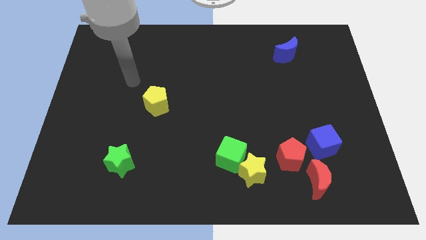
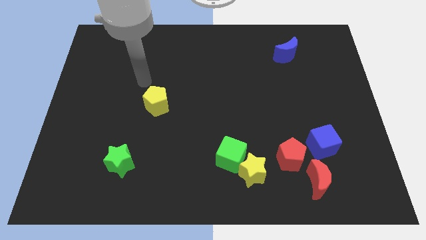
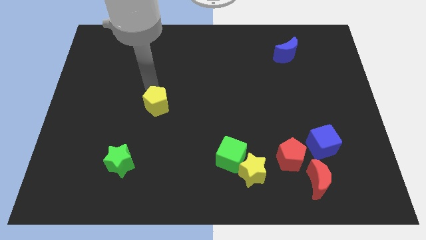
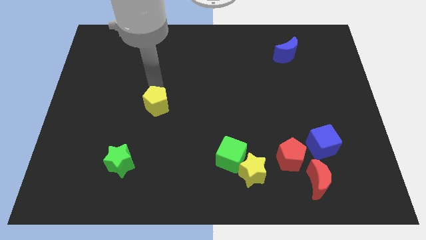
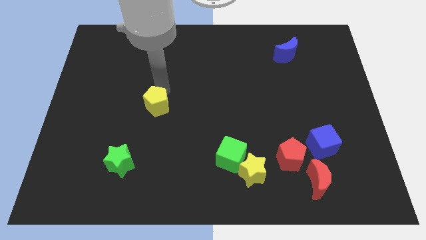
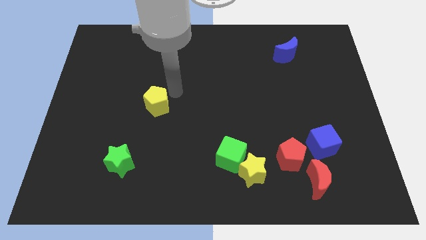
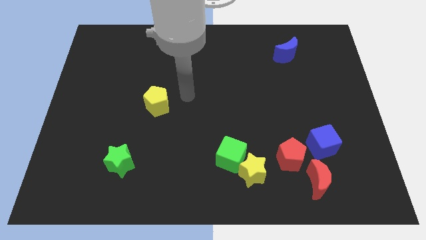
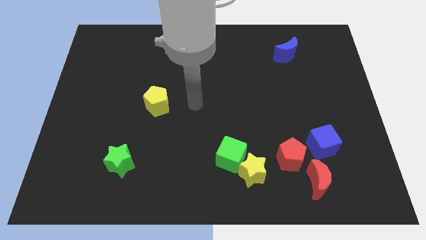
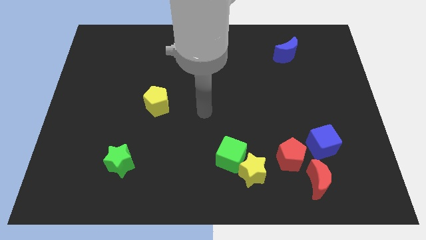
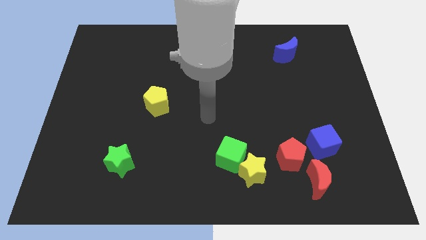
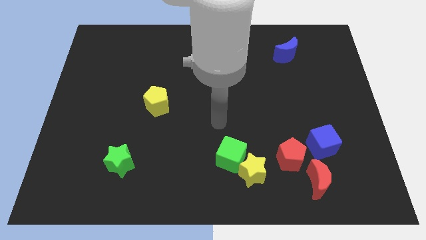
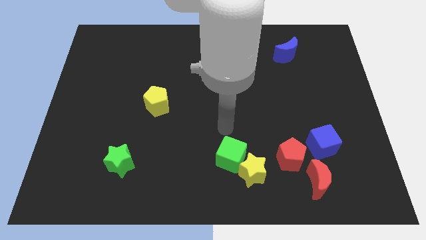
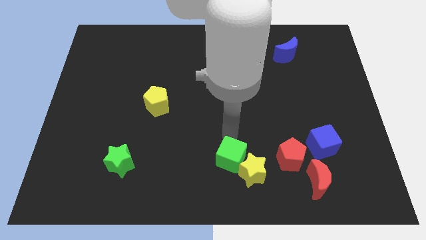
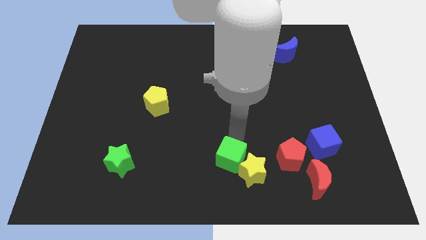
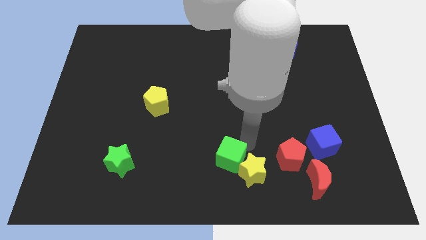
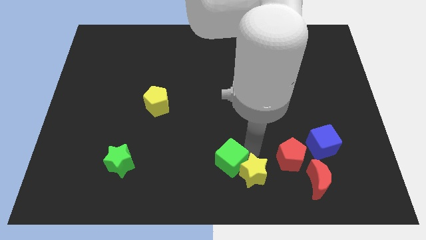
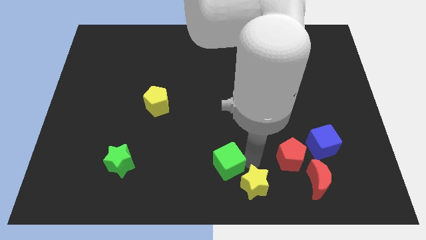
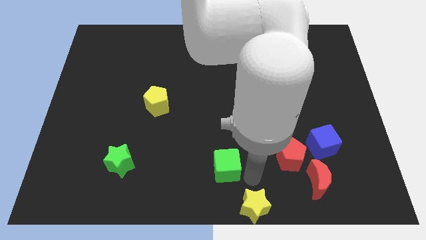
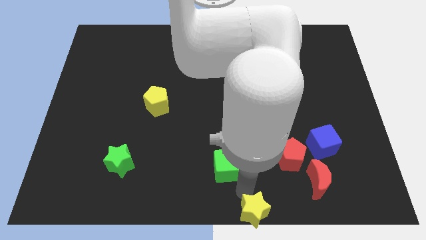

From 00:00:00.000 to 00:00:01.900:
pull the green cube apart from the yellow star

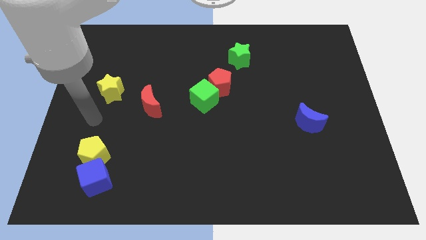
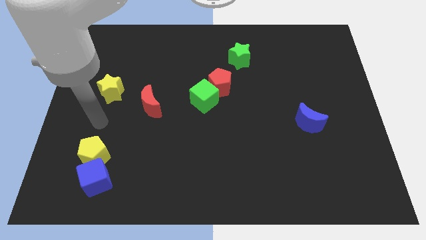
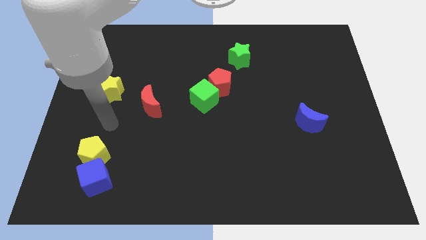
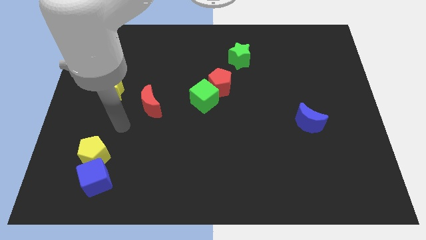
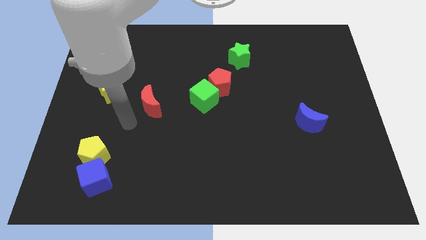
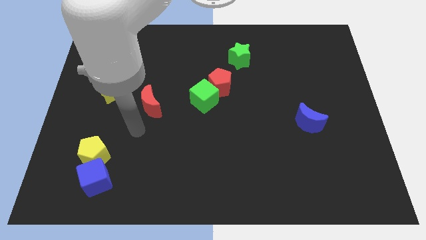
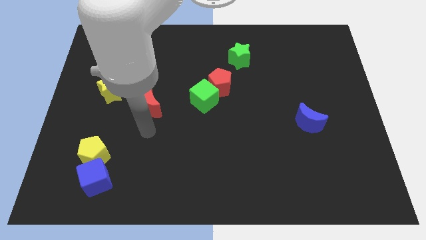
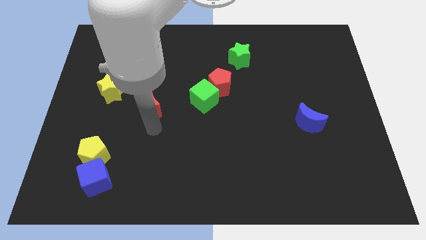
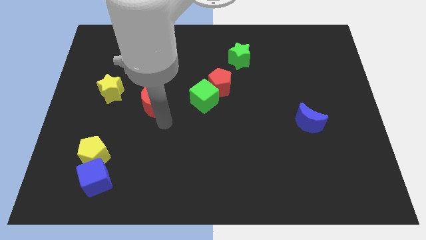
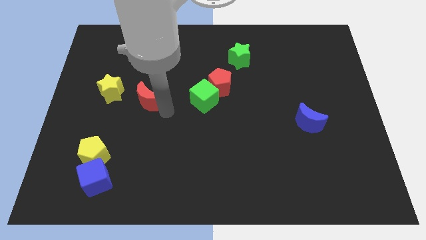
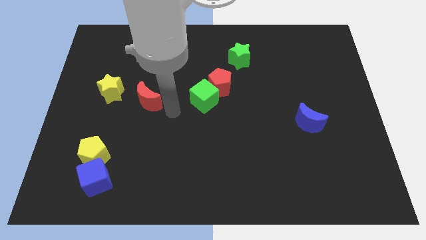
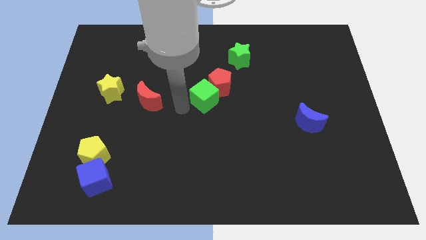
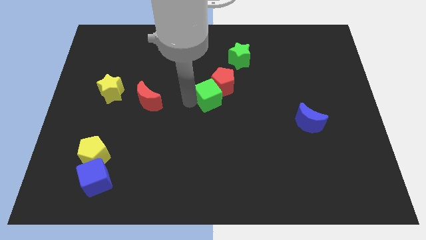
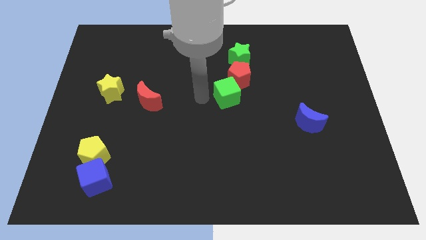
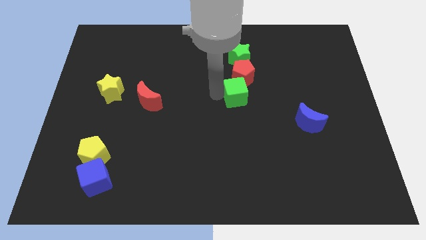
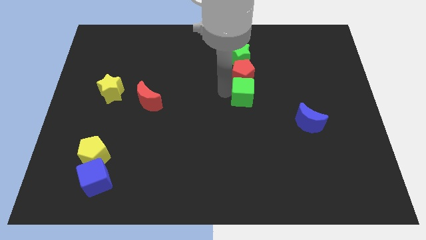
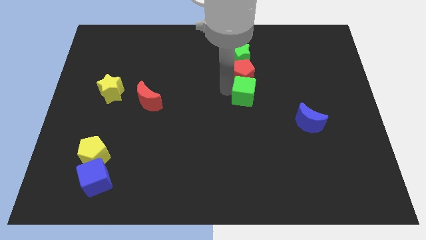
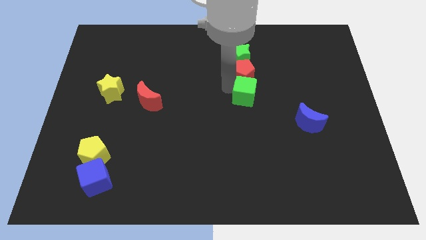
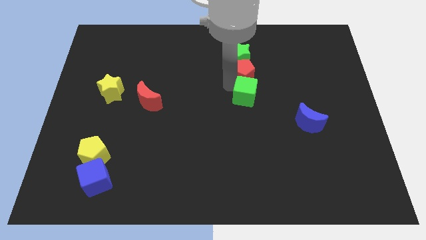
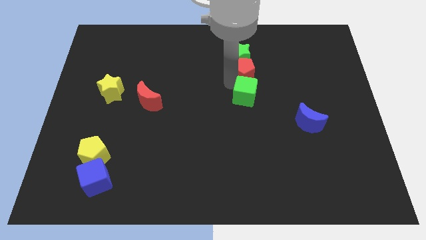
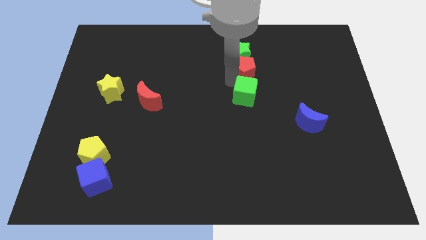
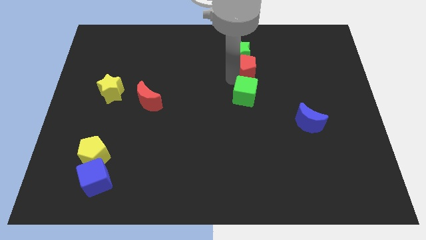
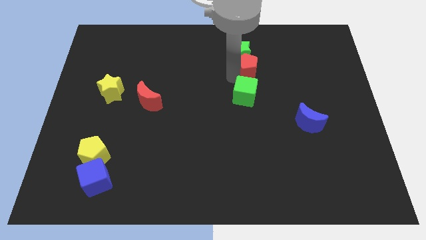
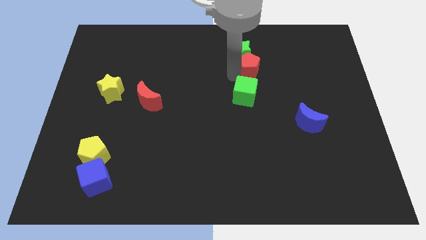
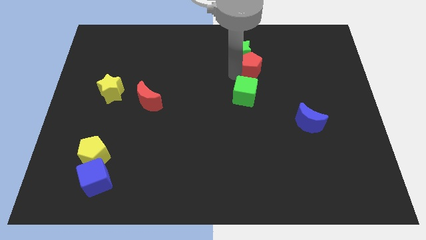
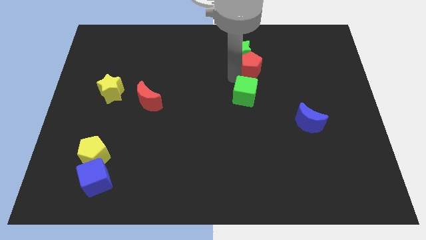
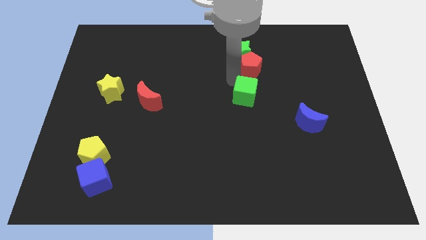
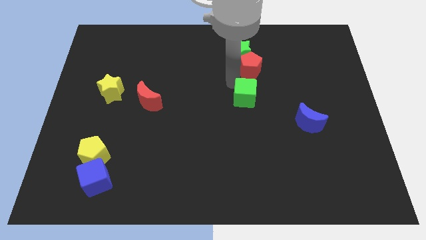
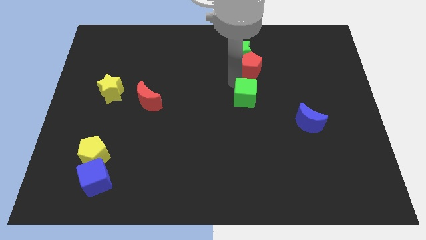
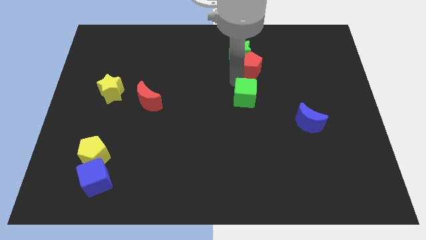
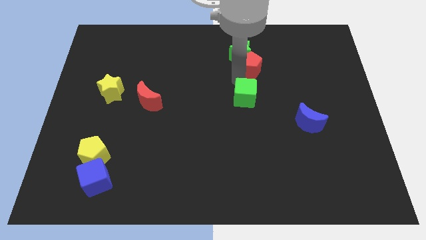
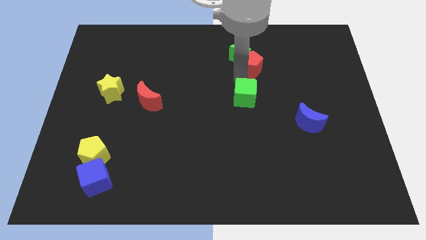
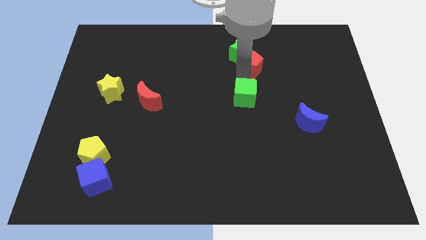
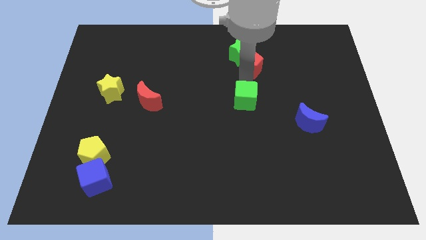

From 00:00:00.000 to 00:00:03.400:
move the red pentagon away from the green cube

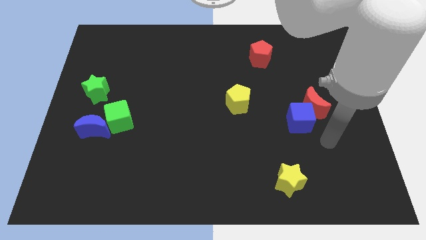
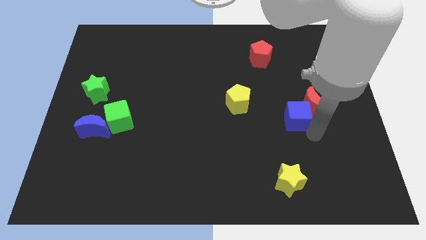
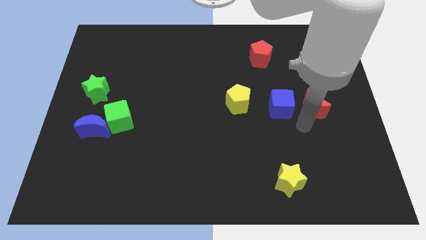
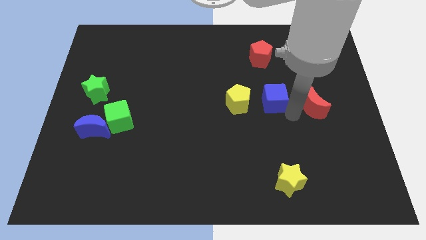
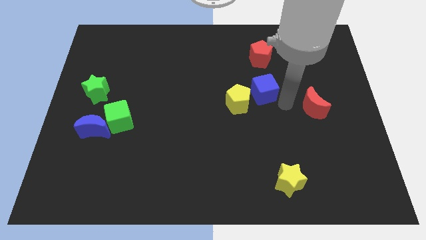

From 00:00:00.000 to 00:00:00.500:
separate the red moon from the blue cube

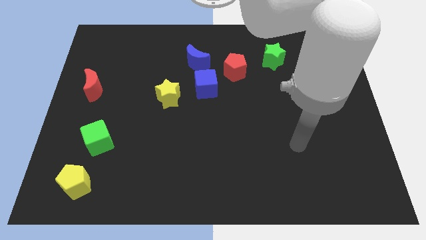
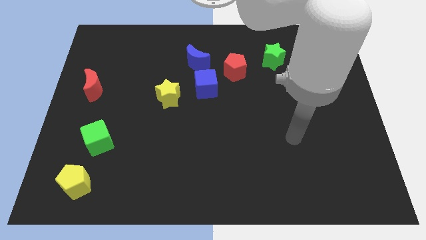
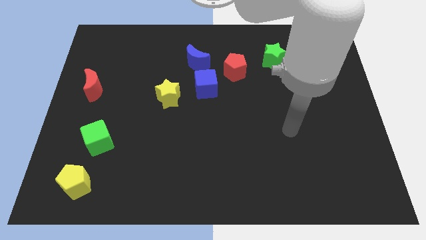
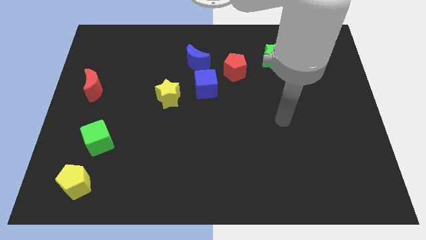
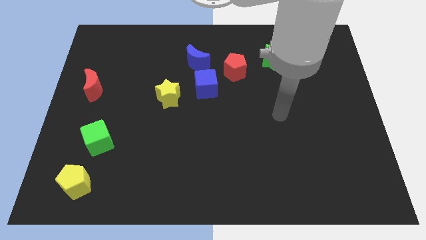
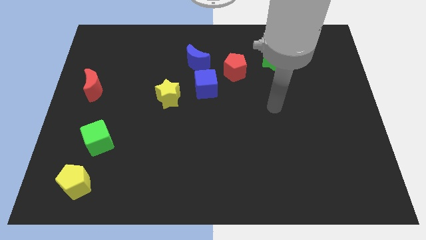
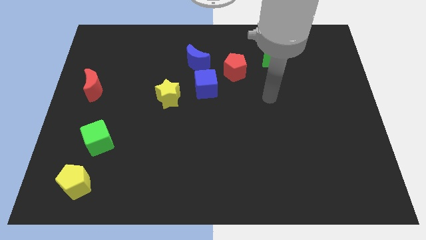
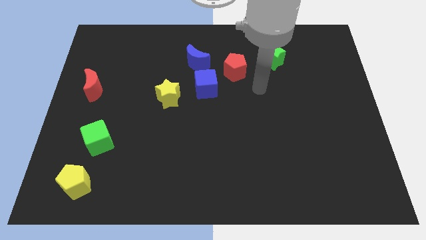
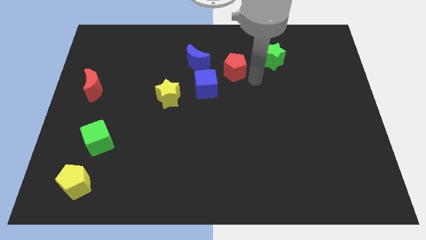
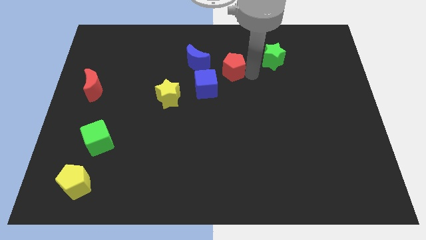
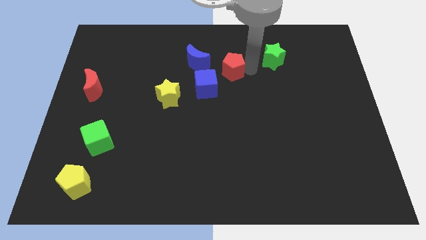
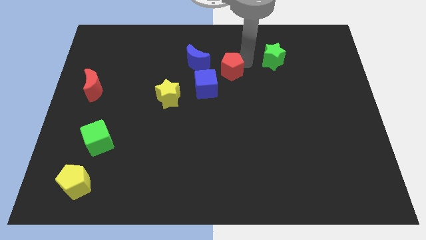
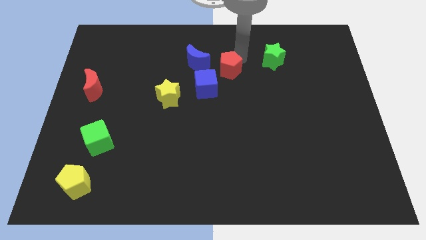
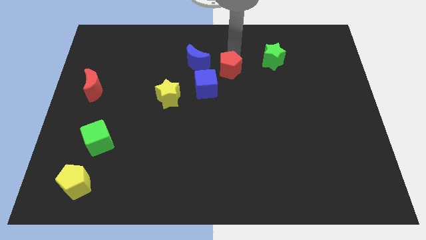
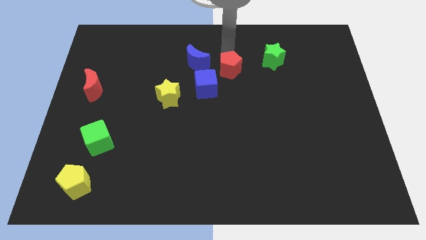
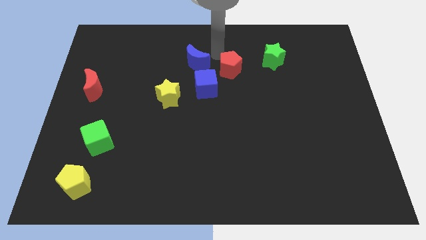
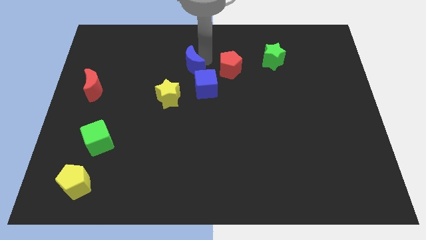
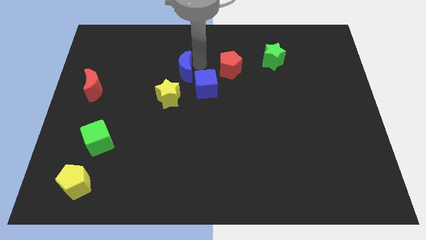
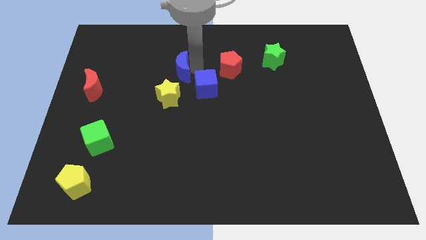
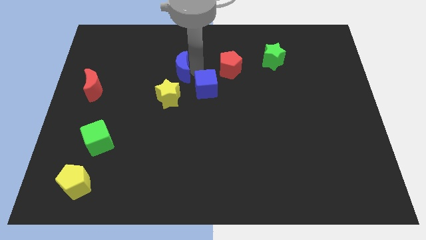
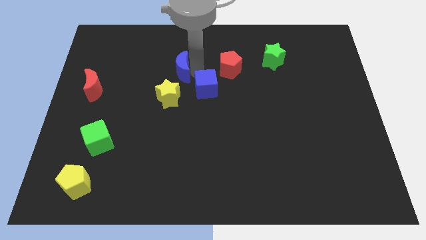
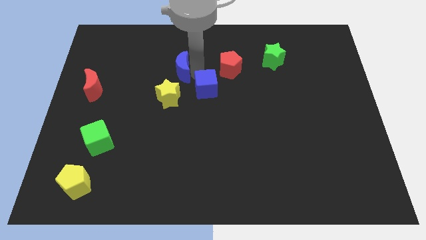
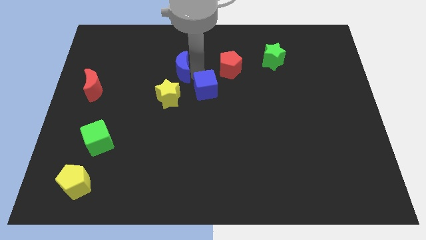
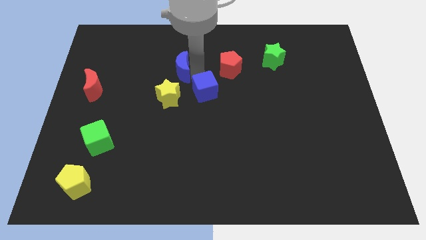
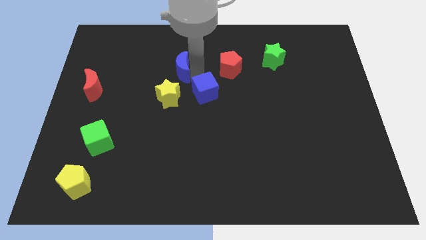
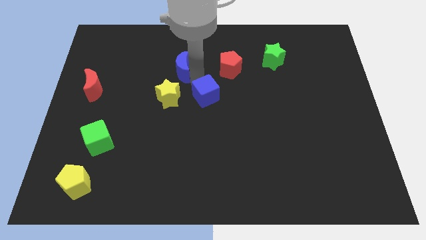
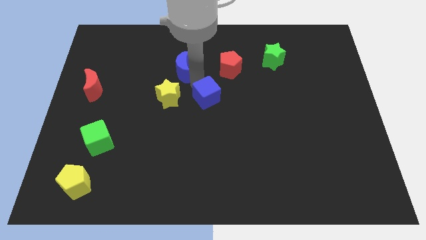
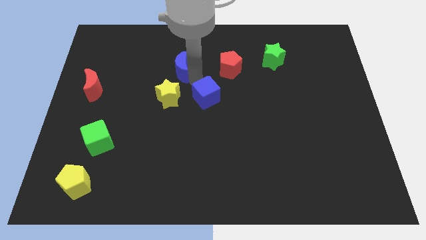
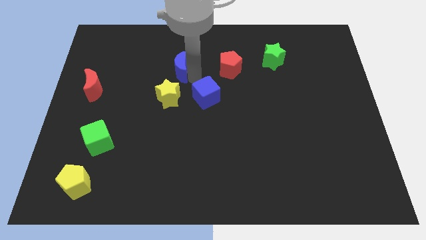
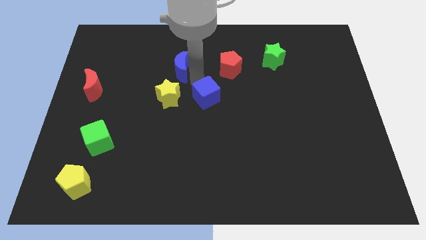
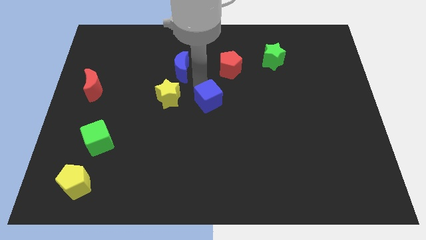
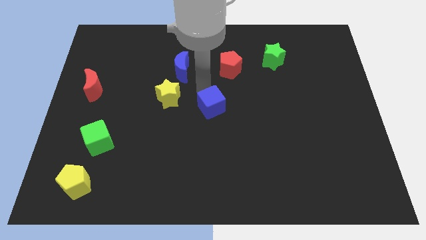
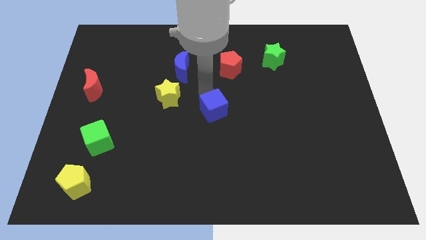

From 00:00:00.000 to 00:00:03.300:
move the blue cube away from the group of blocks

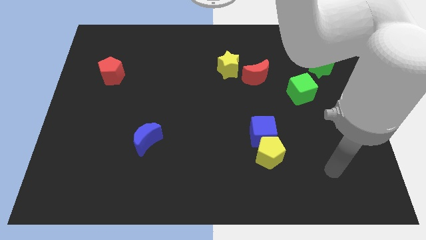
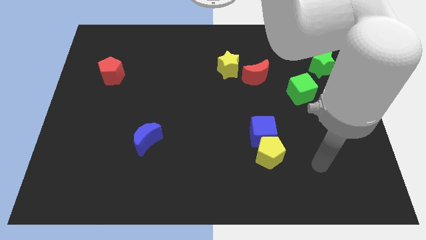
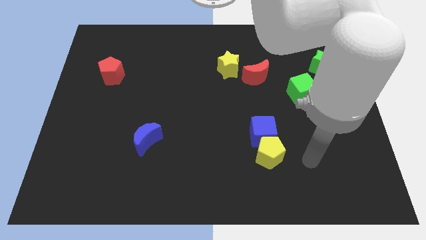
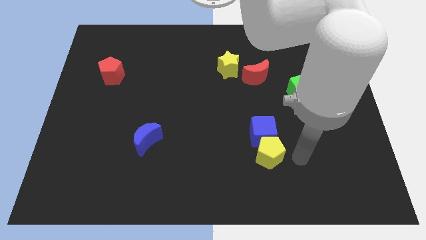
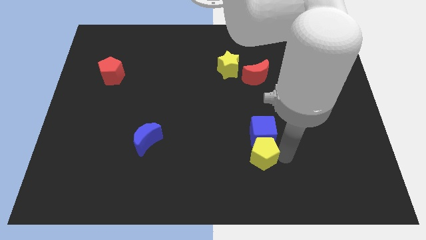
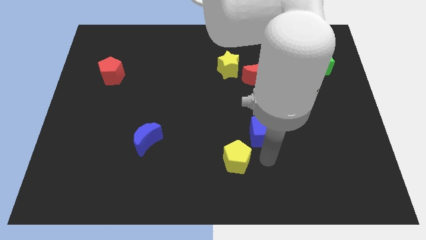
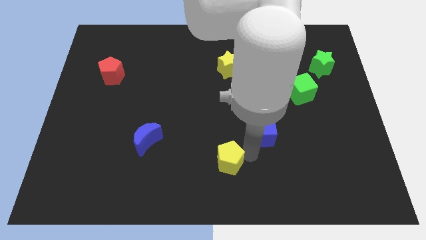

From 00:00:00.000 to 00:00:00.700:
pull the blue cube apart from the yellow pentagon
